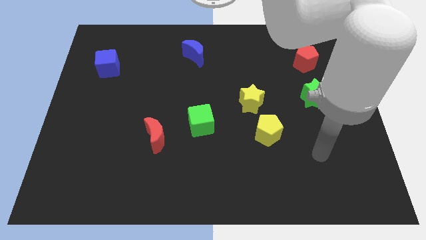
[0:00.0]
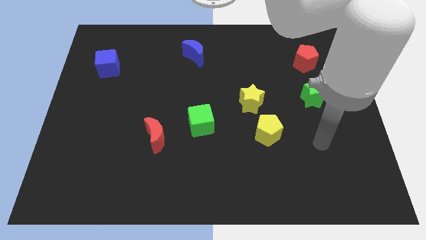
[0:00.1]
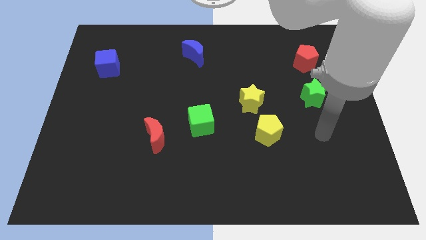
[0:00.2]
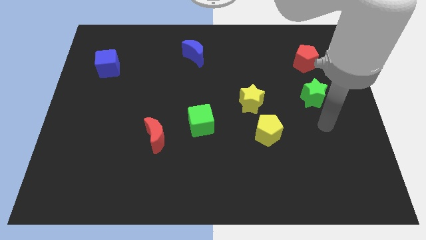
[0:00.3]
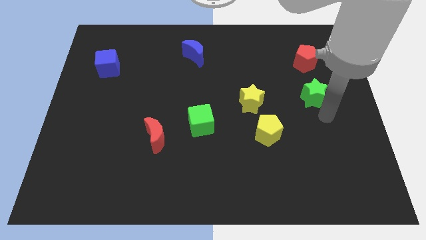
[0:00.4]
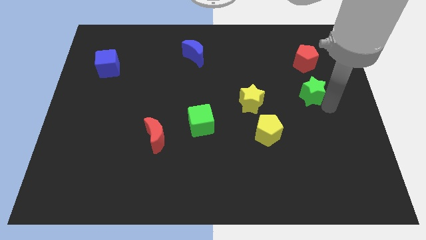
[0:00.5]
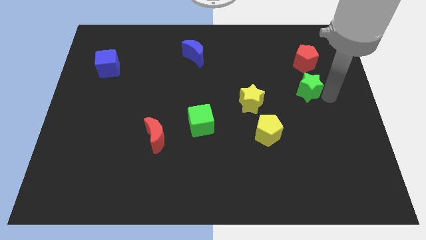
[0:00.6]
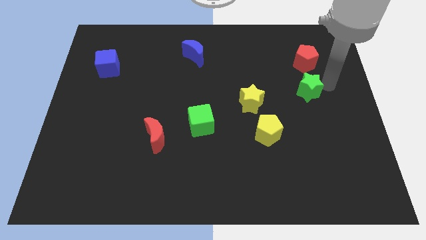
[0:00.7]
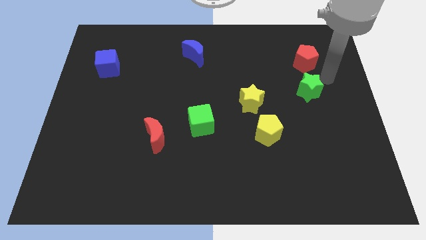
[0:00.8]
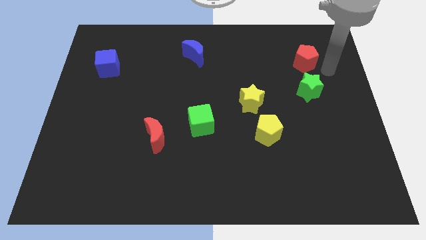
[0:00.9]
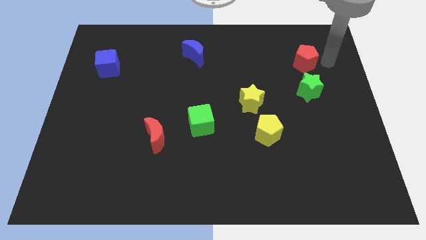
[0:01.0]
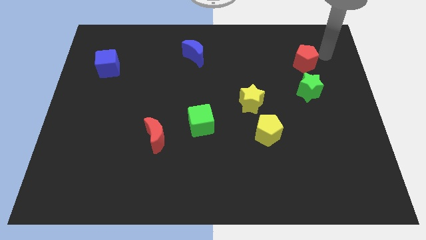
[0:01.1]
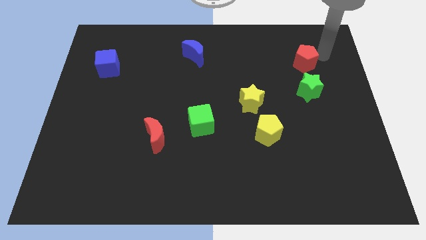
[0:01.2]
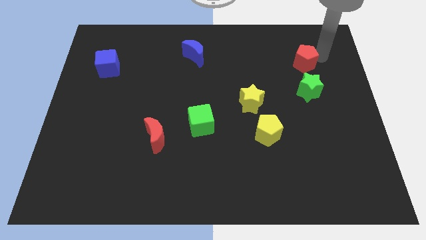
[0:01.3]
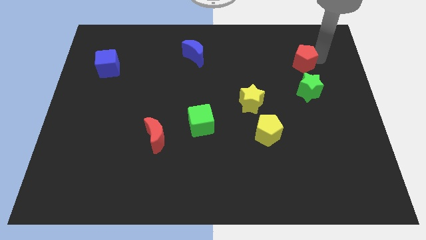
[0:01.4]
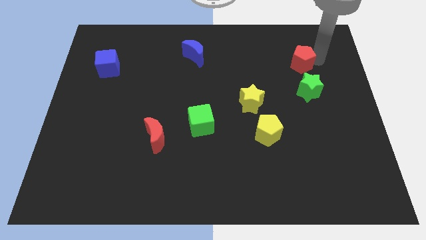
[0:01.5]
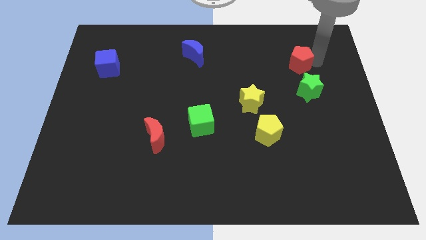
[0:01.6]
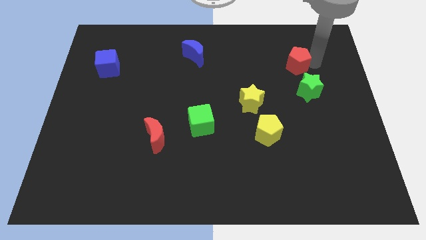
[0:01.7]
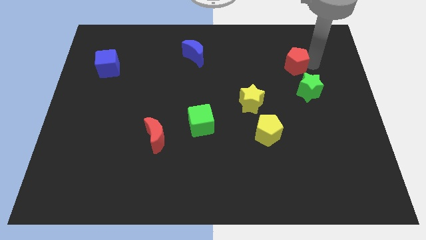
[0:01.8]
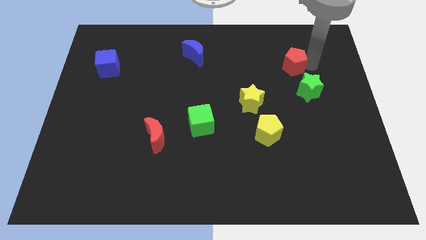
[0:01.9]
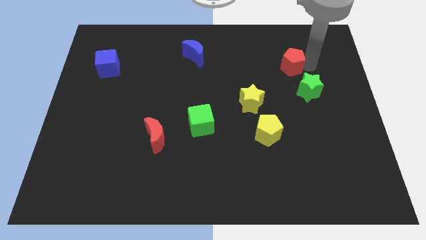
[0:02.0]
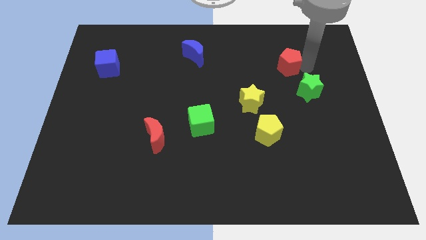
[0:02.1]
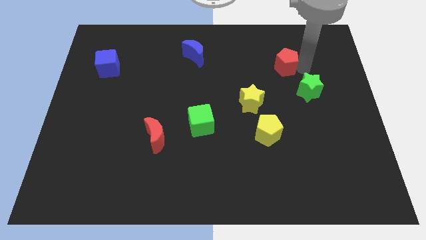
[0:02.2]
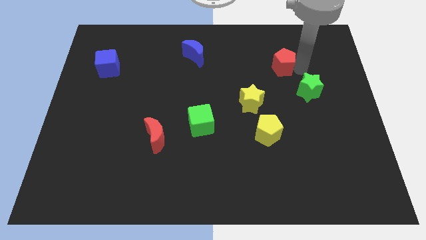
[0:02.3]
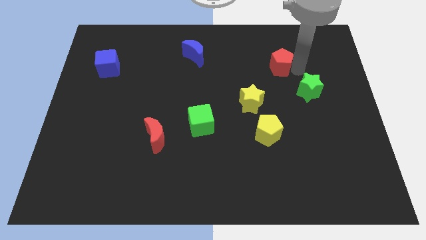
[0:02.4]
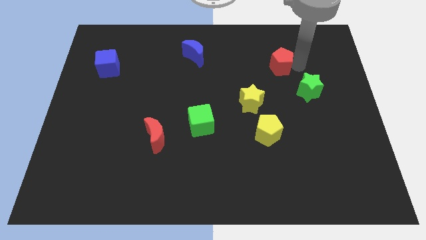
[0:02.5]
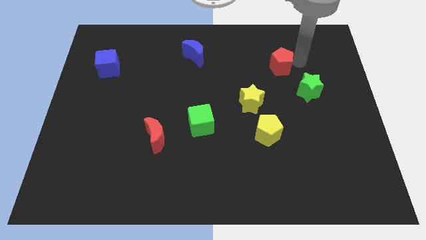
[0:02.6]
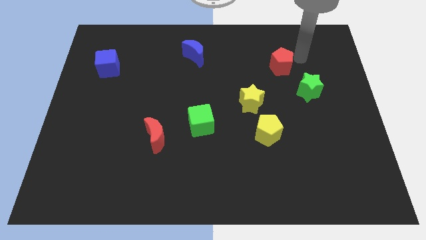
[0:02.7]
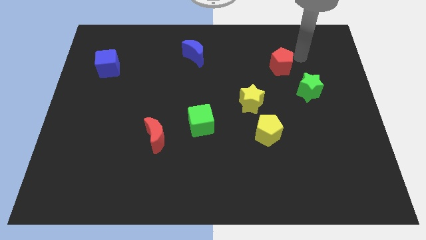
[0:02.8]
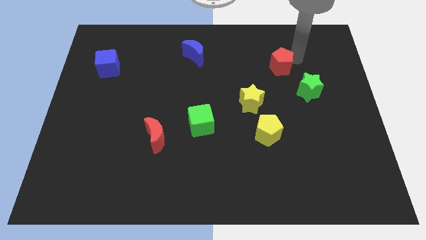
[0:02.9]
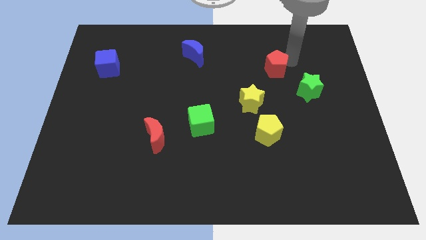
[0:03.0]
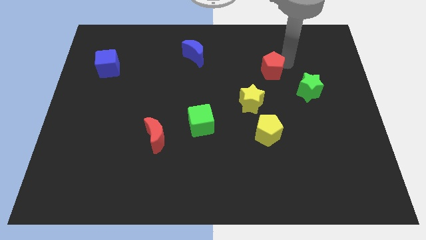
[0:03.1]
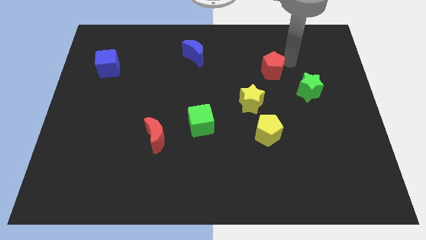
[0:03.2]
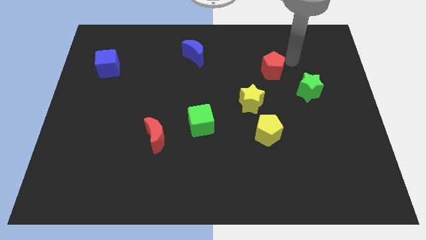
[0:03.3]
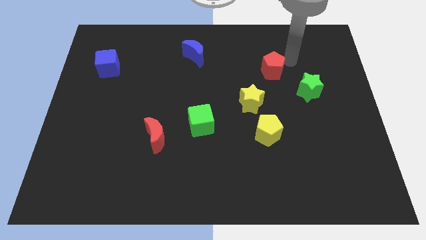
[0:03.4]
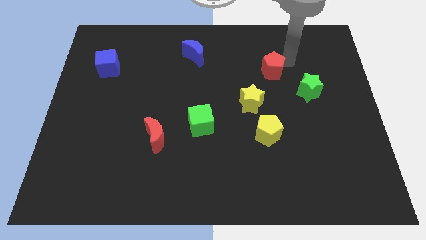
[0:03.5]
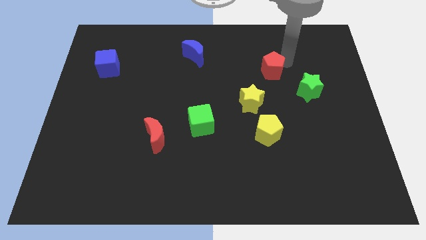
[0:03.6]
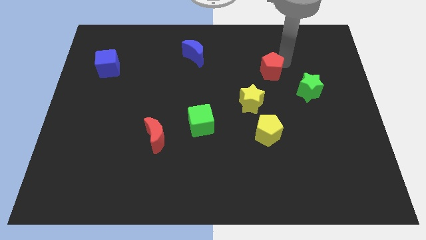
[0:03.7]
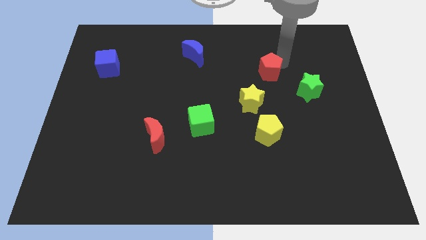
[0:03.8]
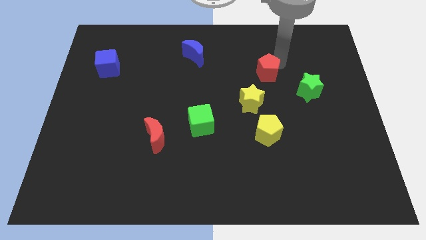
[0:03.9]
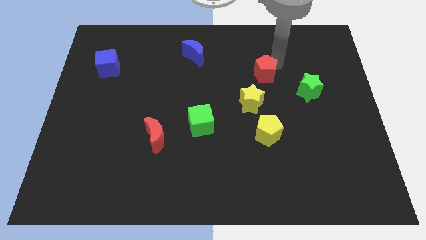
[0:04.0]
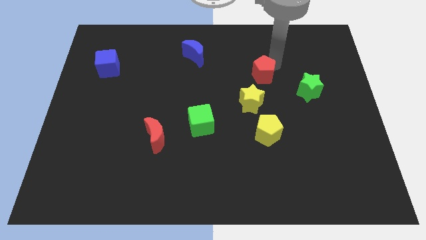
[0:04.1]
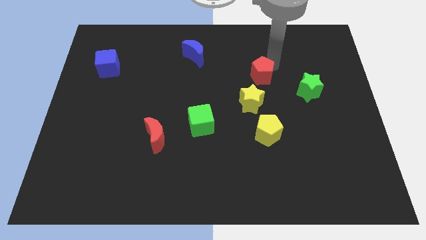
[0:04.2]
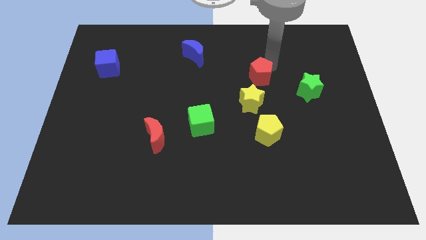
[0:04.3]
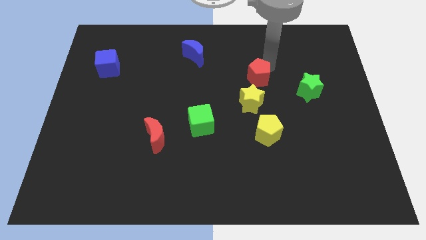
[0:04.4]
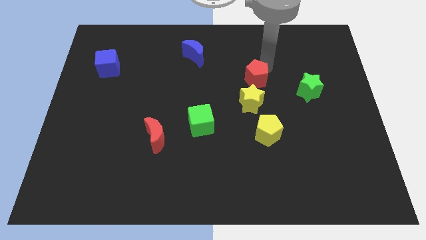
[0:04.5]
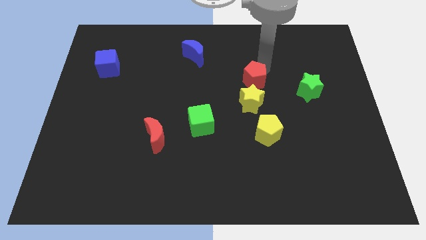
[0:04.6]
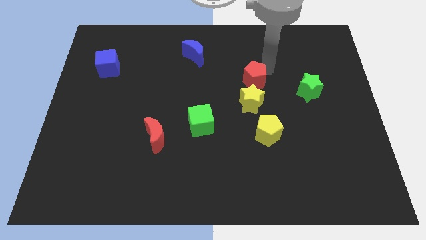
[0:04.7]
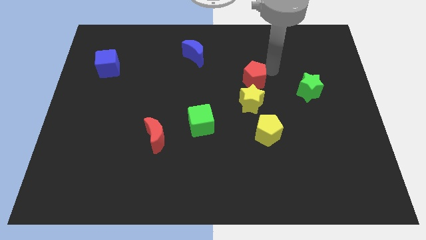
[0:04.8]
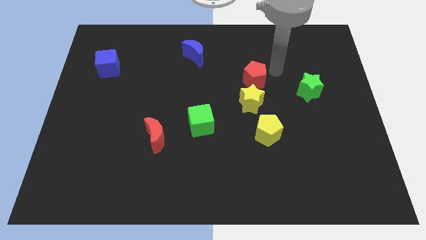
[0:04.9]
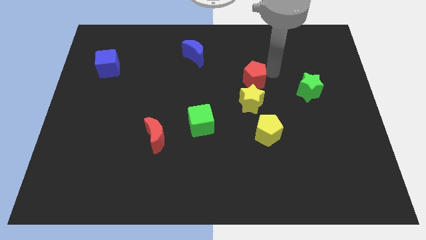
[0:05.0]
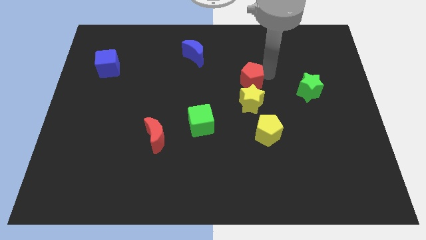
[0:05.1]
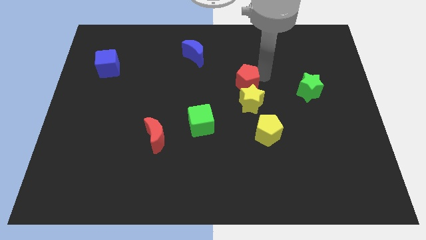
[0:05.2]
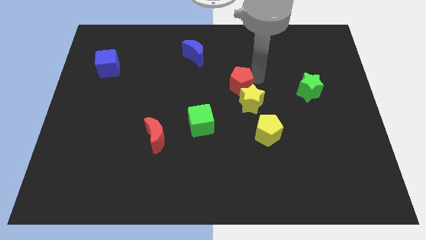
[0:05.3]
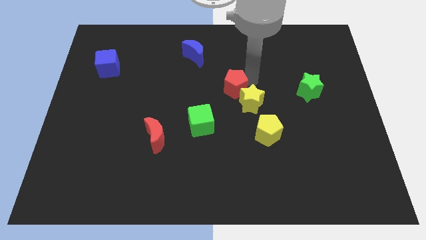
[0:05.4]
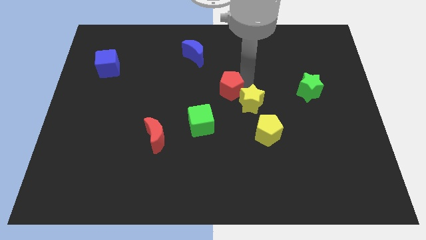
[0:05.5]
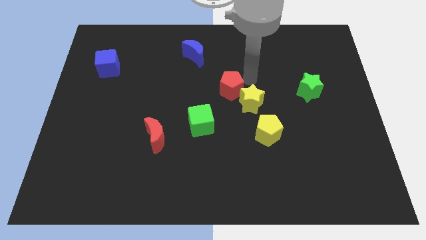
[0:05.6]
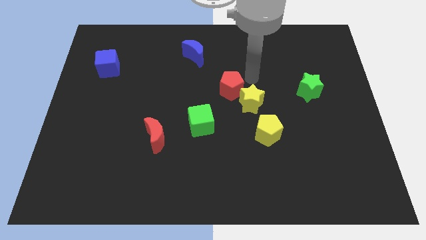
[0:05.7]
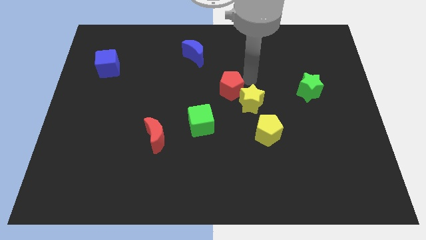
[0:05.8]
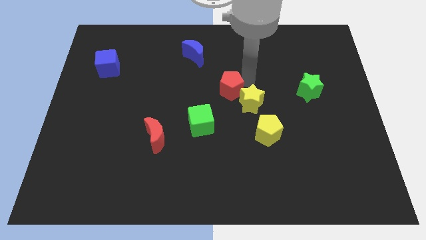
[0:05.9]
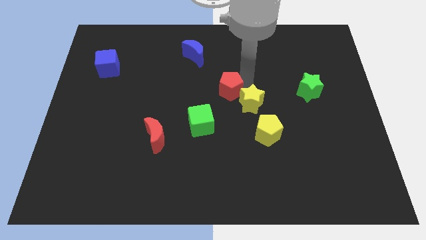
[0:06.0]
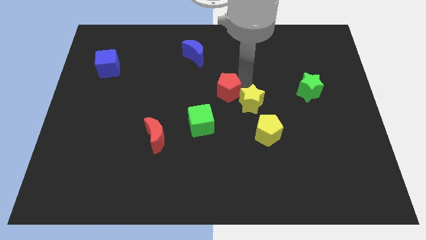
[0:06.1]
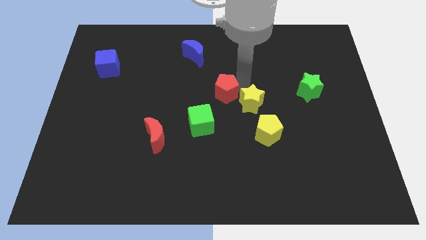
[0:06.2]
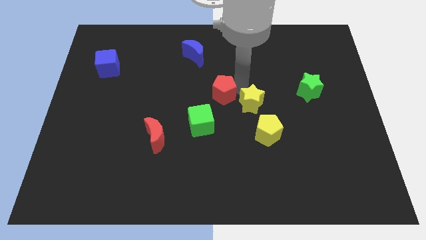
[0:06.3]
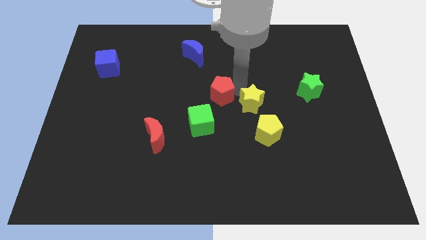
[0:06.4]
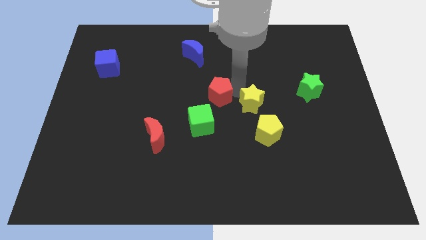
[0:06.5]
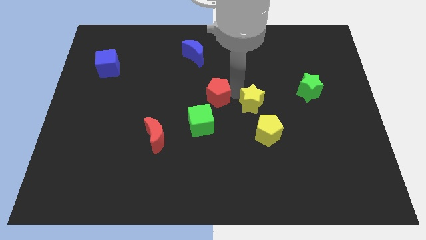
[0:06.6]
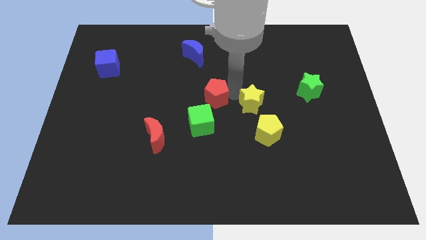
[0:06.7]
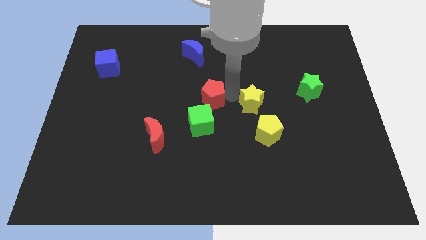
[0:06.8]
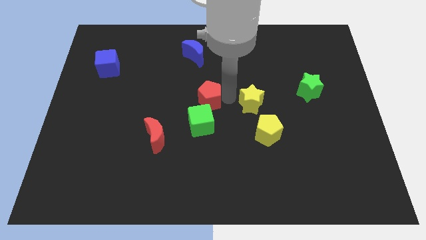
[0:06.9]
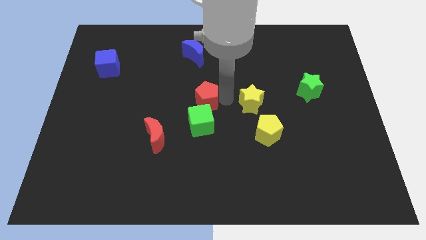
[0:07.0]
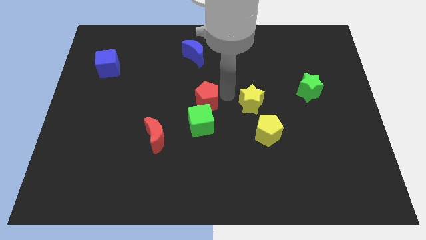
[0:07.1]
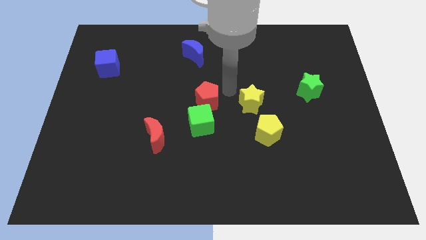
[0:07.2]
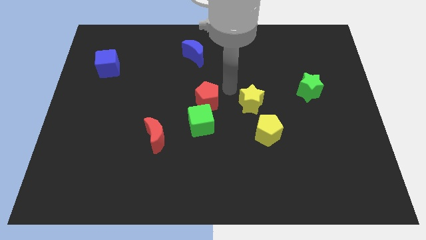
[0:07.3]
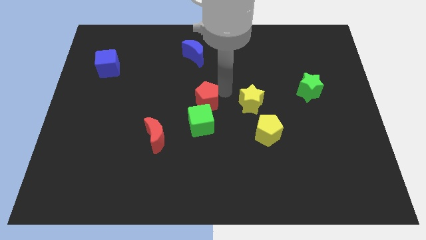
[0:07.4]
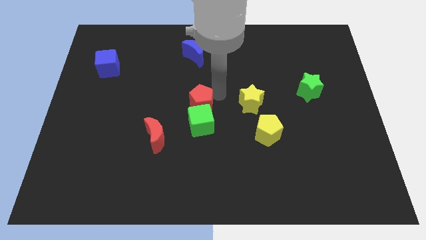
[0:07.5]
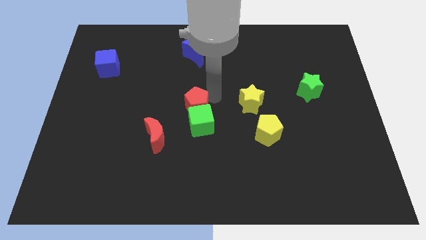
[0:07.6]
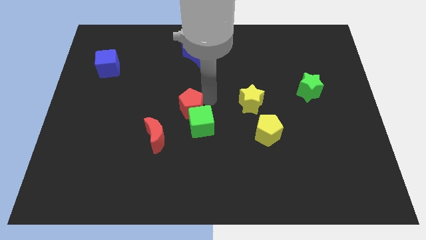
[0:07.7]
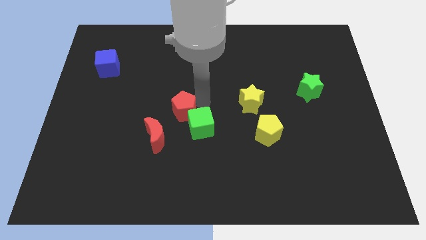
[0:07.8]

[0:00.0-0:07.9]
move the red pentagon just left of the green cube
